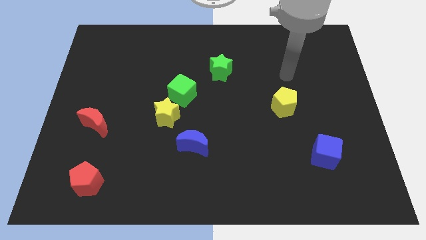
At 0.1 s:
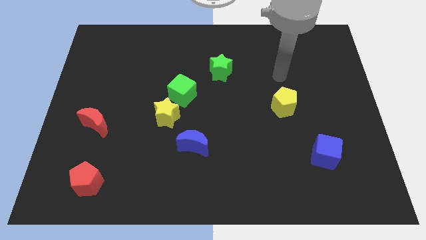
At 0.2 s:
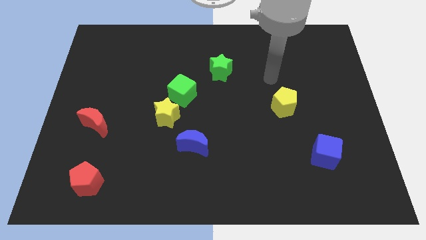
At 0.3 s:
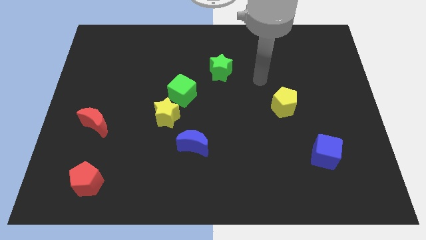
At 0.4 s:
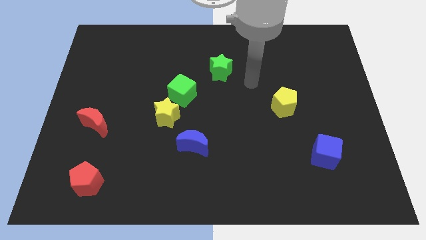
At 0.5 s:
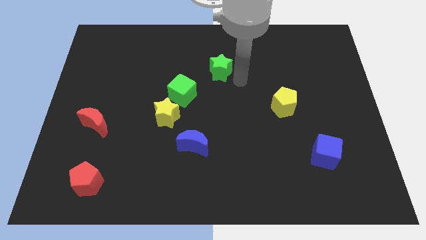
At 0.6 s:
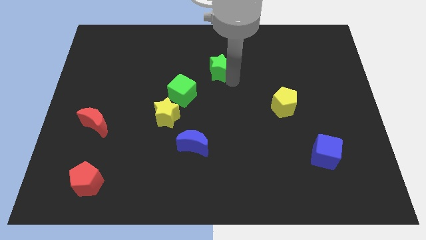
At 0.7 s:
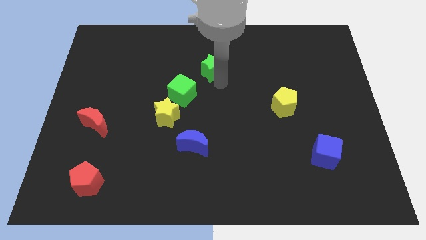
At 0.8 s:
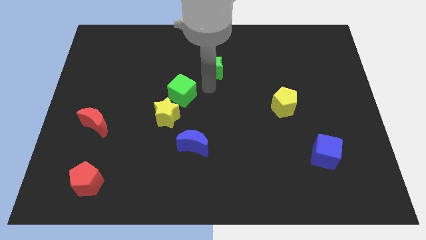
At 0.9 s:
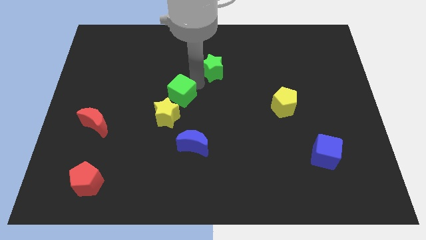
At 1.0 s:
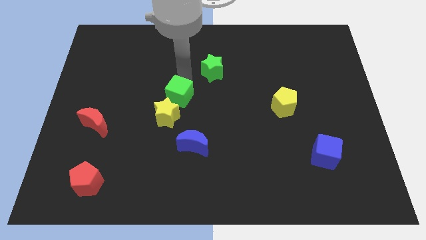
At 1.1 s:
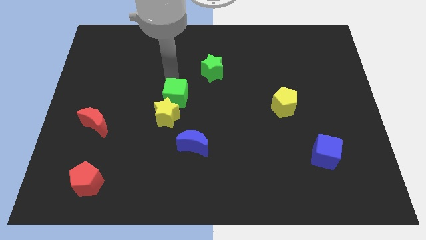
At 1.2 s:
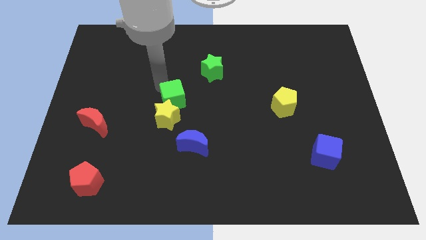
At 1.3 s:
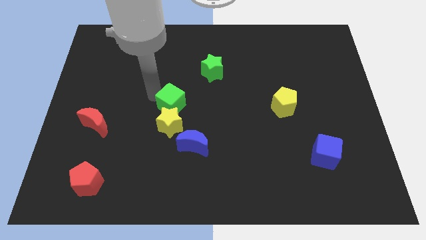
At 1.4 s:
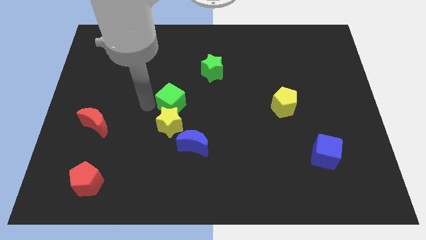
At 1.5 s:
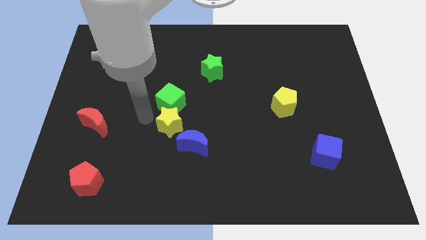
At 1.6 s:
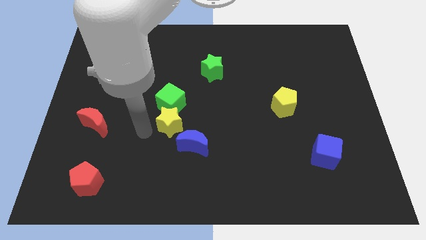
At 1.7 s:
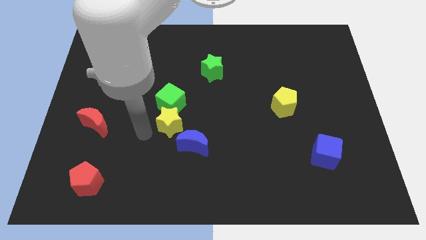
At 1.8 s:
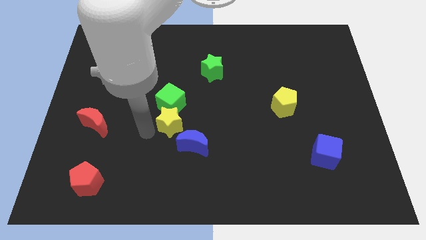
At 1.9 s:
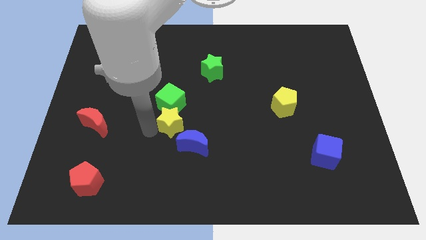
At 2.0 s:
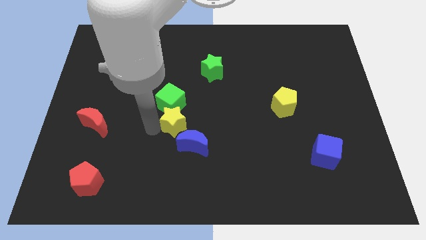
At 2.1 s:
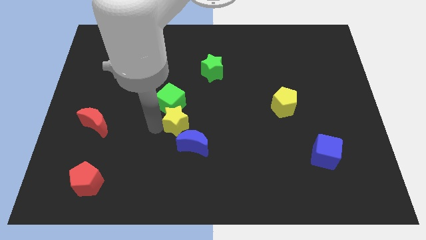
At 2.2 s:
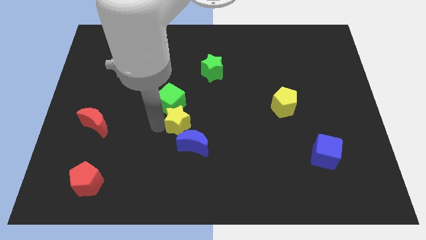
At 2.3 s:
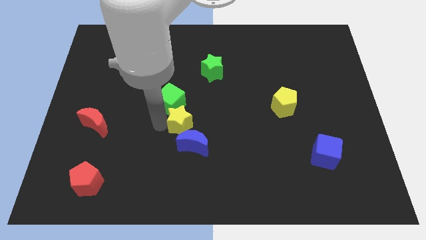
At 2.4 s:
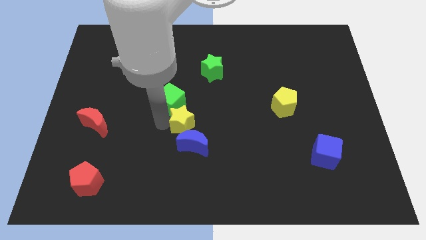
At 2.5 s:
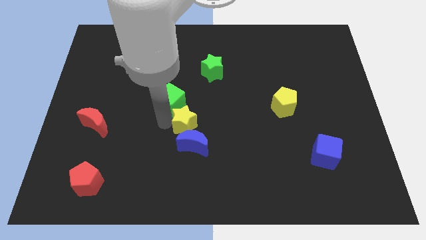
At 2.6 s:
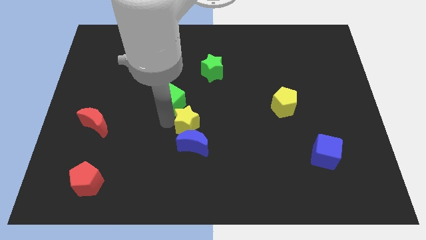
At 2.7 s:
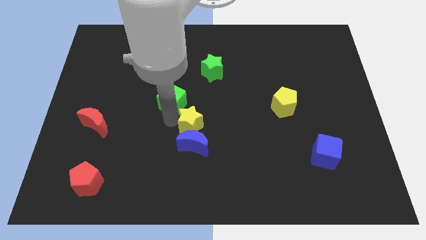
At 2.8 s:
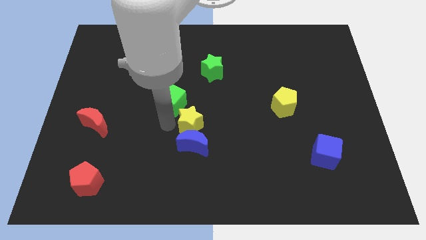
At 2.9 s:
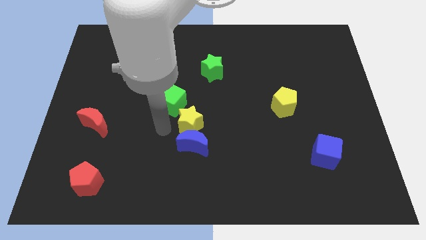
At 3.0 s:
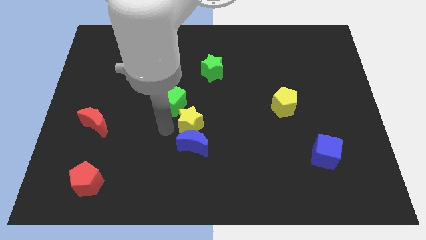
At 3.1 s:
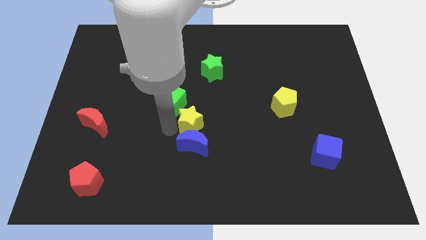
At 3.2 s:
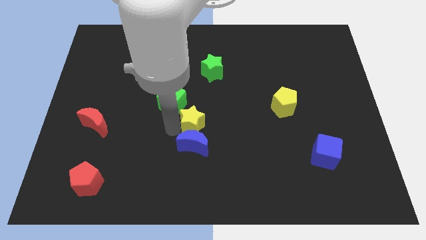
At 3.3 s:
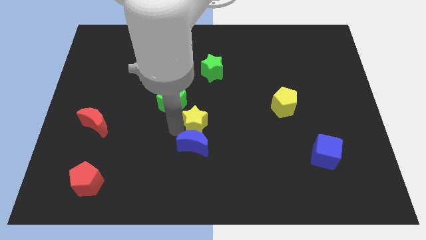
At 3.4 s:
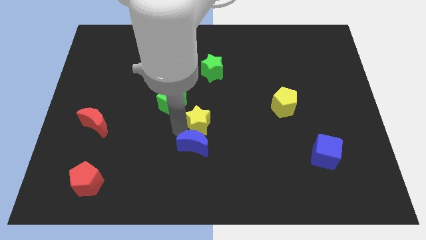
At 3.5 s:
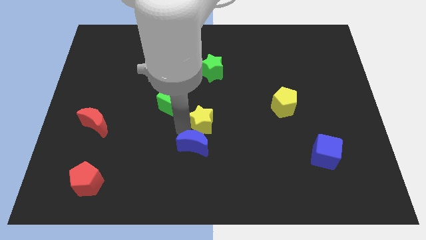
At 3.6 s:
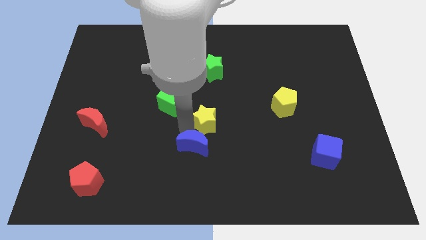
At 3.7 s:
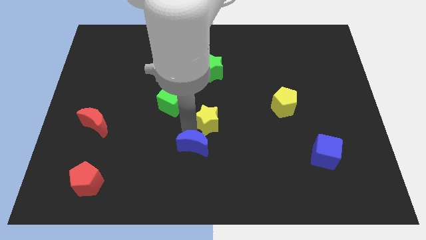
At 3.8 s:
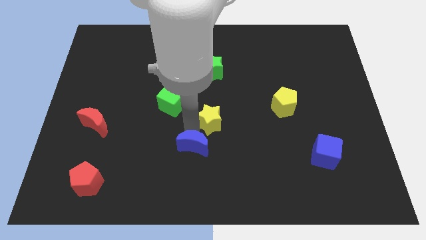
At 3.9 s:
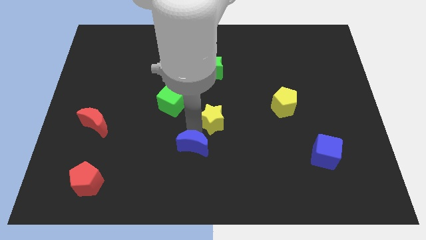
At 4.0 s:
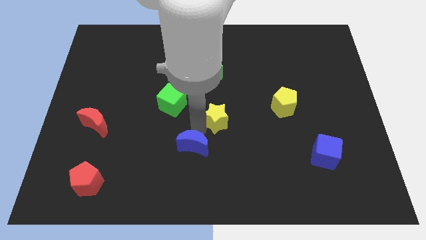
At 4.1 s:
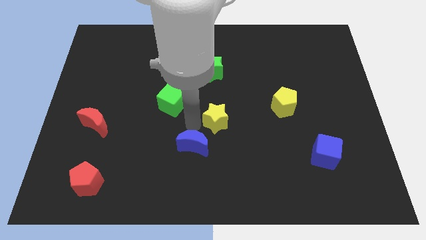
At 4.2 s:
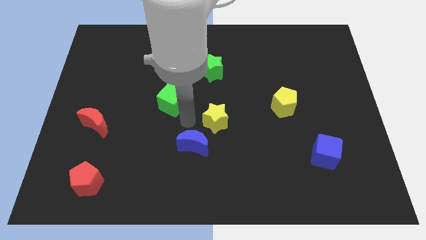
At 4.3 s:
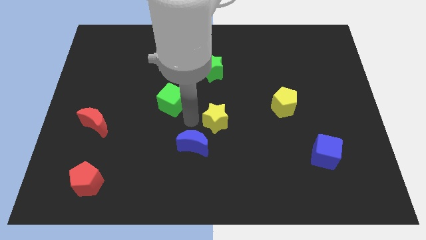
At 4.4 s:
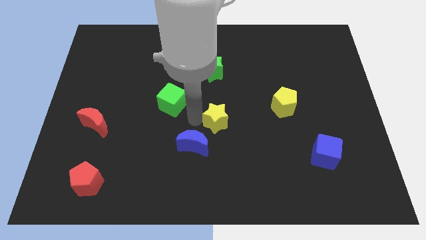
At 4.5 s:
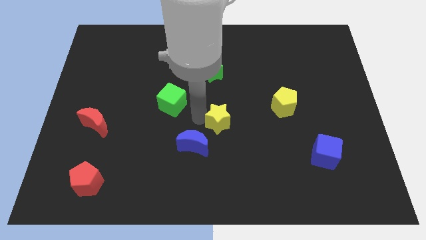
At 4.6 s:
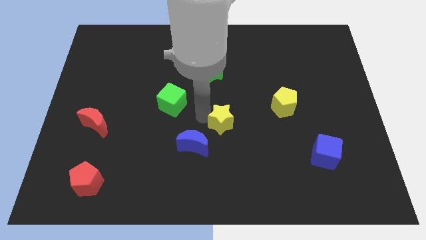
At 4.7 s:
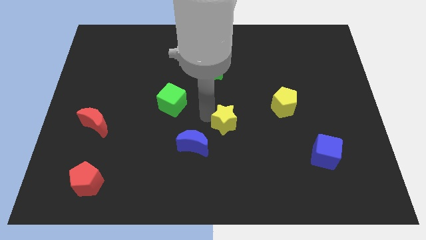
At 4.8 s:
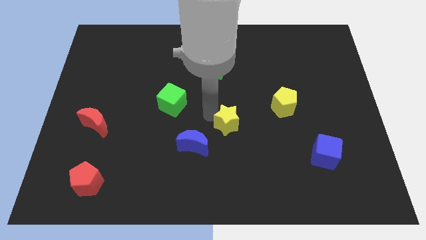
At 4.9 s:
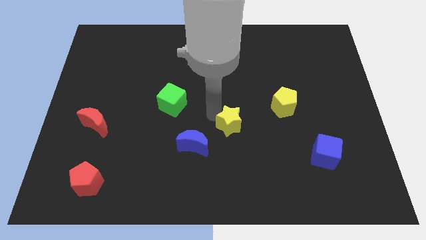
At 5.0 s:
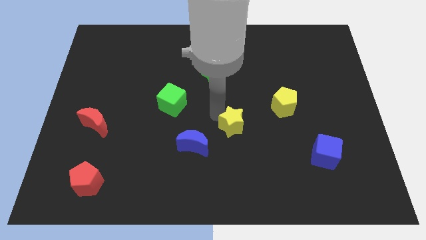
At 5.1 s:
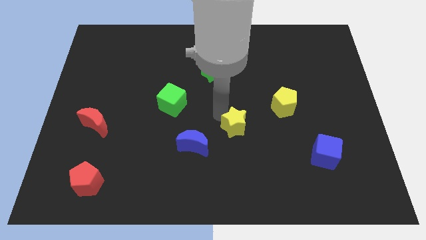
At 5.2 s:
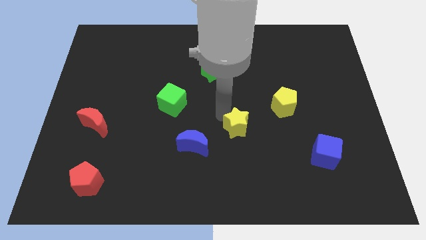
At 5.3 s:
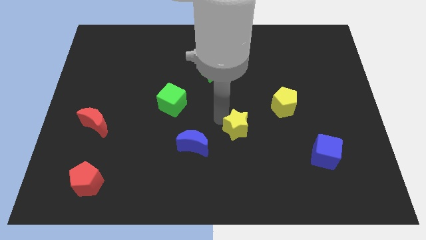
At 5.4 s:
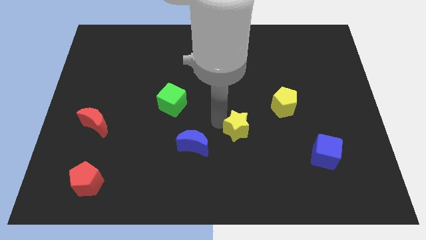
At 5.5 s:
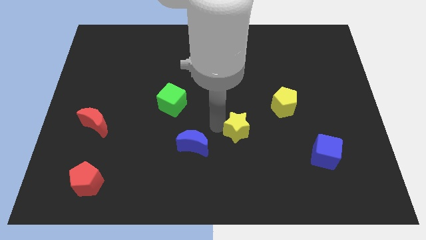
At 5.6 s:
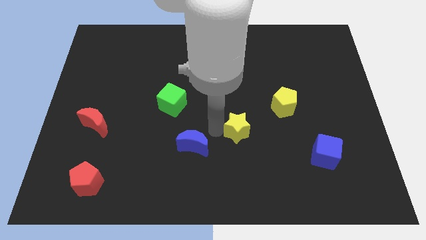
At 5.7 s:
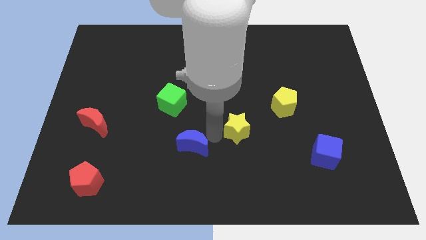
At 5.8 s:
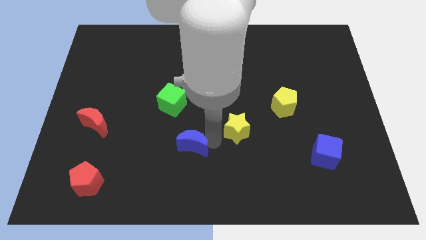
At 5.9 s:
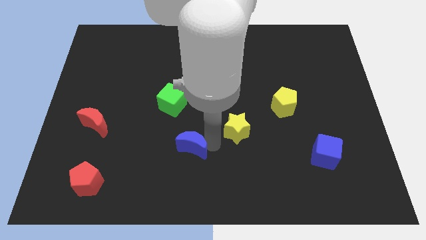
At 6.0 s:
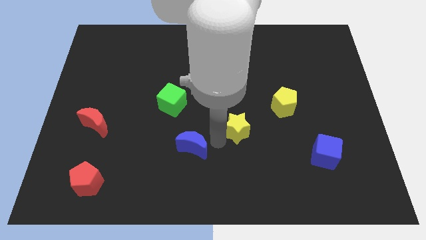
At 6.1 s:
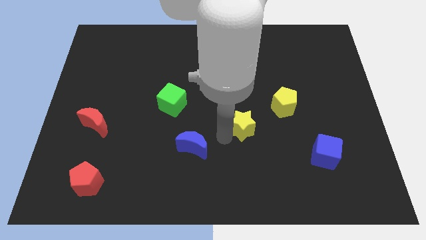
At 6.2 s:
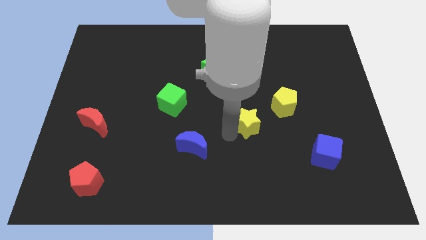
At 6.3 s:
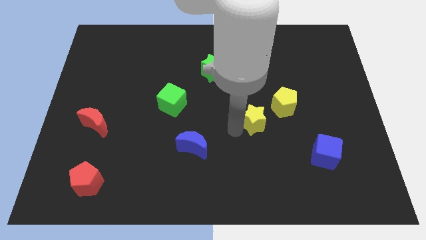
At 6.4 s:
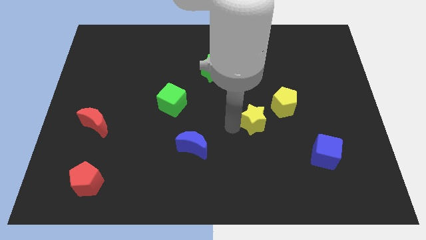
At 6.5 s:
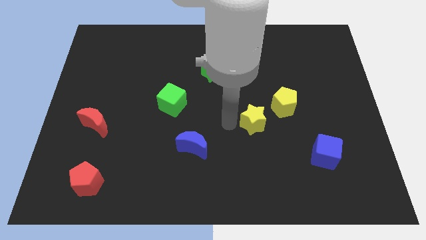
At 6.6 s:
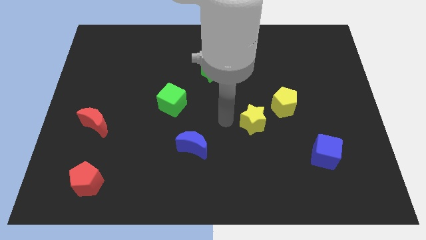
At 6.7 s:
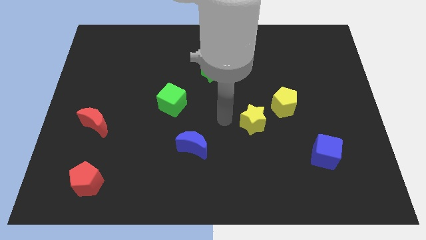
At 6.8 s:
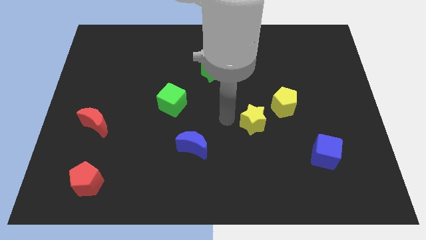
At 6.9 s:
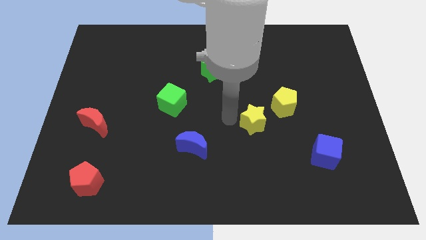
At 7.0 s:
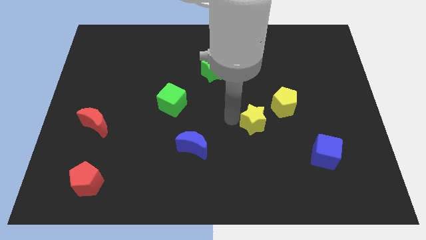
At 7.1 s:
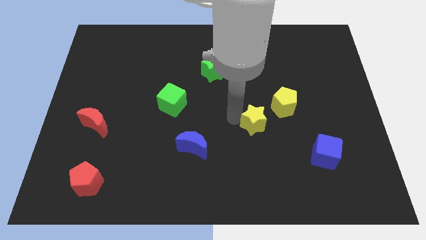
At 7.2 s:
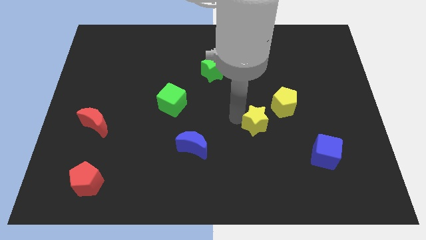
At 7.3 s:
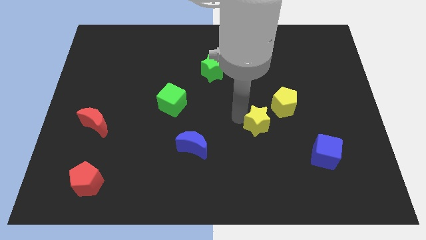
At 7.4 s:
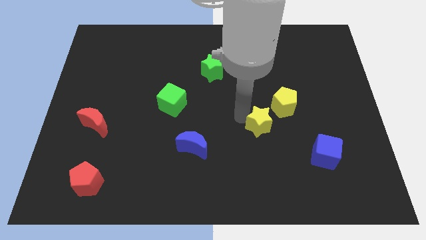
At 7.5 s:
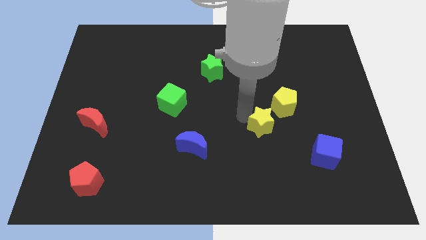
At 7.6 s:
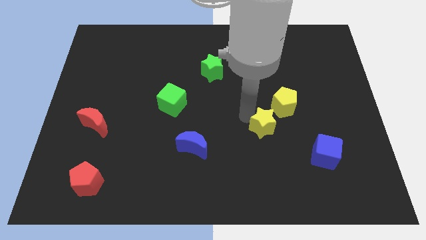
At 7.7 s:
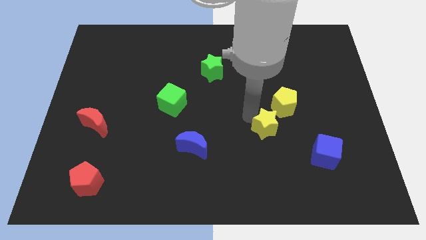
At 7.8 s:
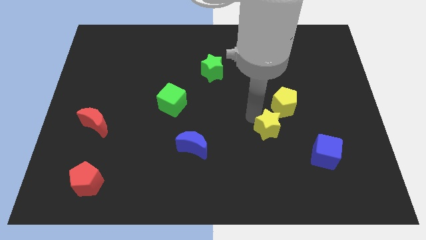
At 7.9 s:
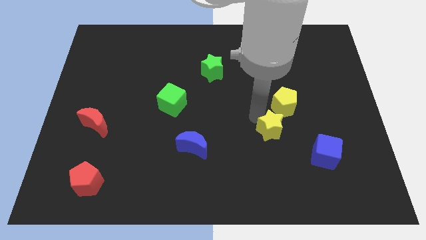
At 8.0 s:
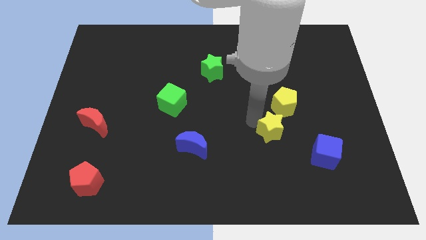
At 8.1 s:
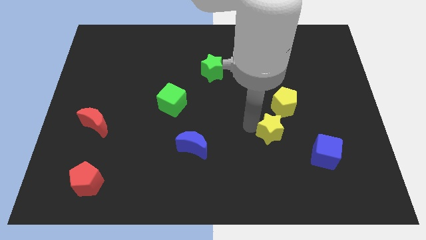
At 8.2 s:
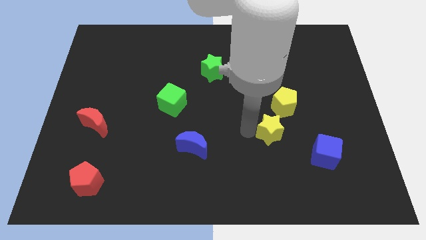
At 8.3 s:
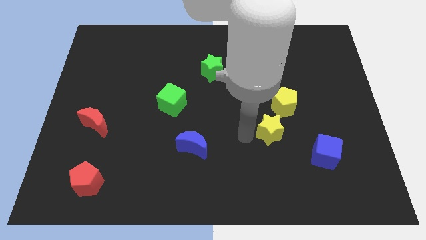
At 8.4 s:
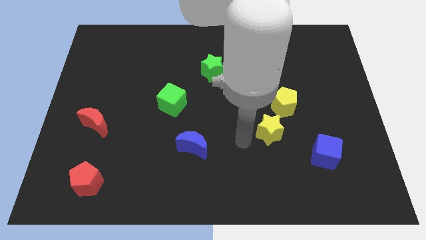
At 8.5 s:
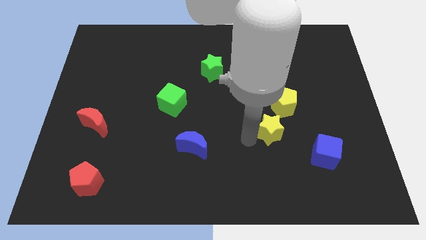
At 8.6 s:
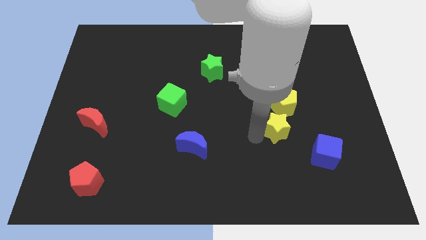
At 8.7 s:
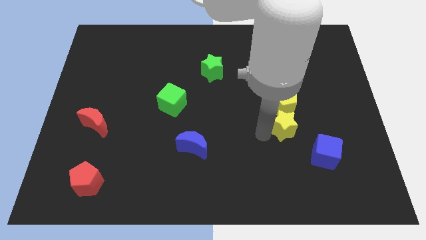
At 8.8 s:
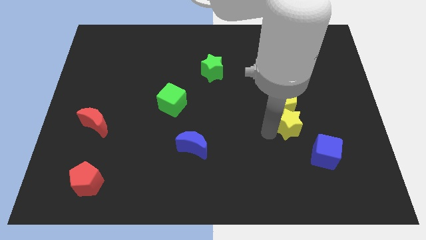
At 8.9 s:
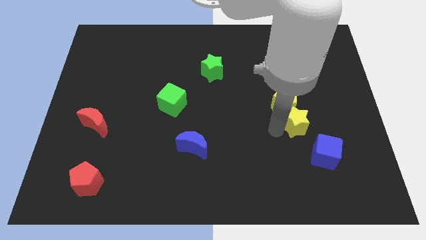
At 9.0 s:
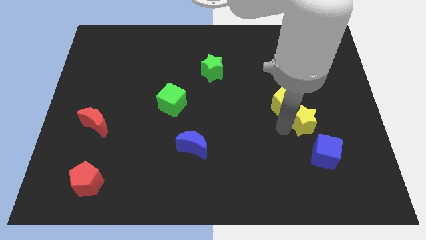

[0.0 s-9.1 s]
push the yellow star to the top of the blue cube
